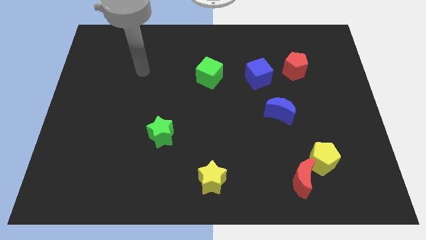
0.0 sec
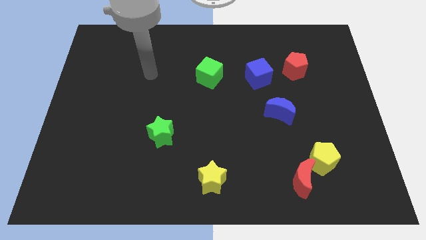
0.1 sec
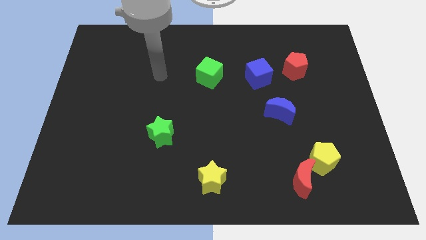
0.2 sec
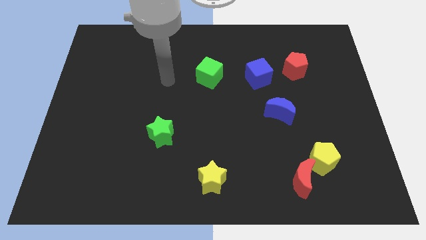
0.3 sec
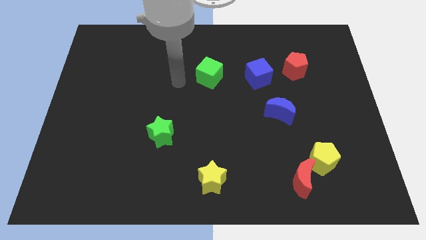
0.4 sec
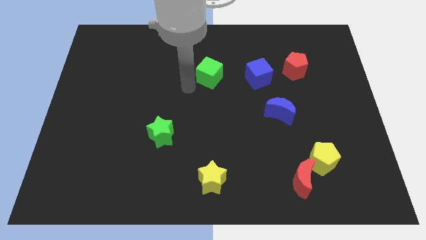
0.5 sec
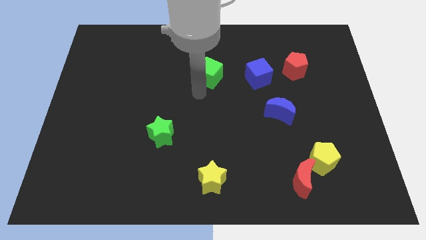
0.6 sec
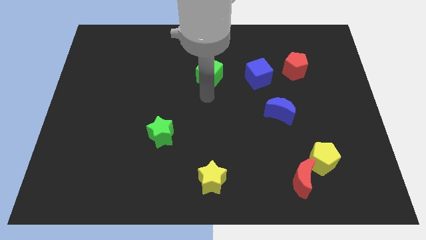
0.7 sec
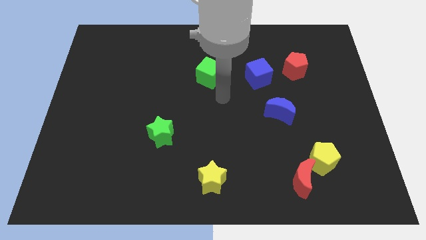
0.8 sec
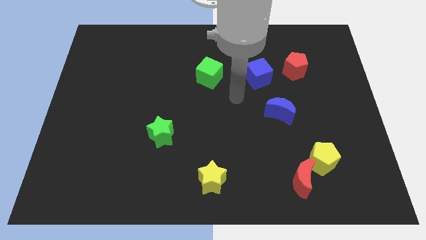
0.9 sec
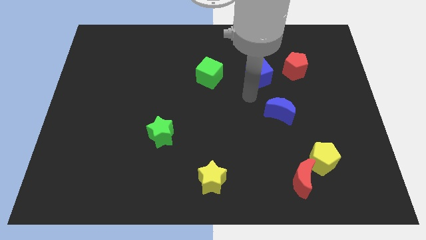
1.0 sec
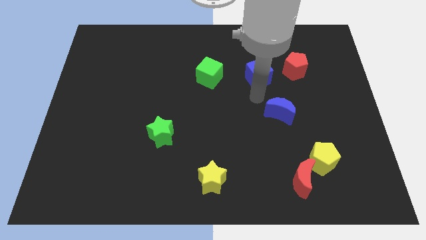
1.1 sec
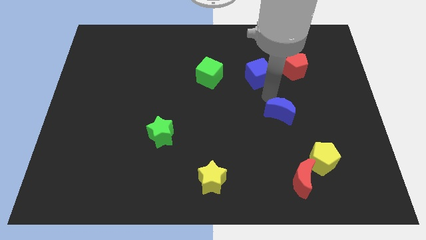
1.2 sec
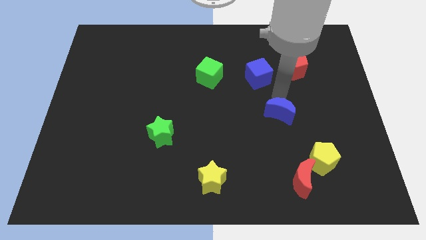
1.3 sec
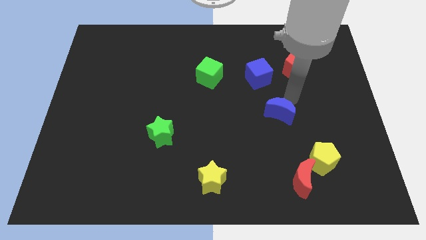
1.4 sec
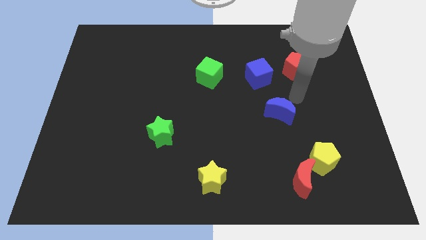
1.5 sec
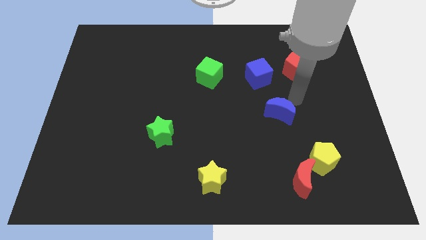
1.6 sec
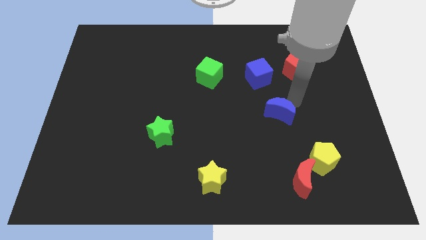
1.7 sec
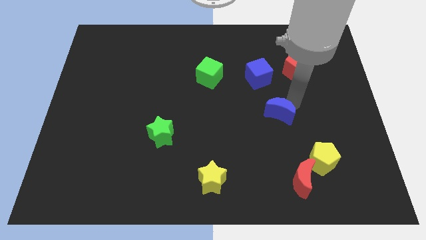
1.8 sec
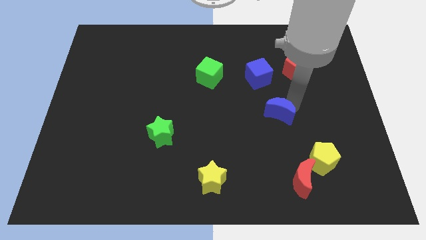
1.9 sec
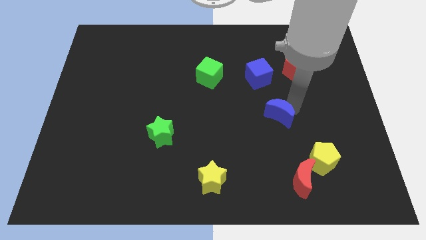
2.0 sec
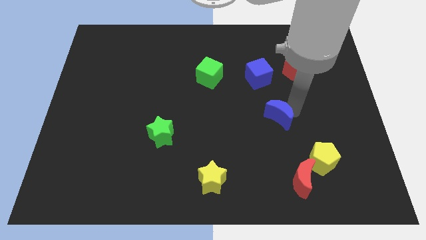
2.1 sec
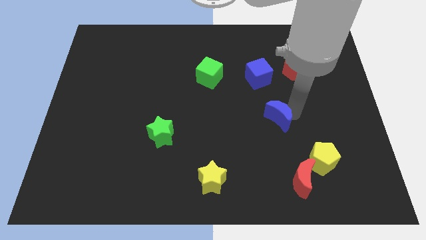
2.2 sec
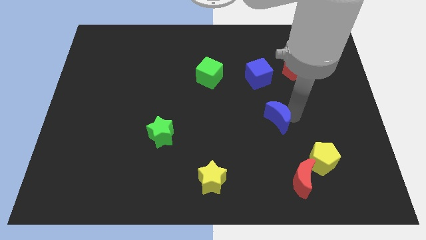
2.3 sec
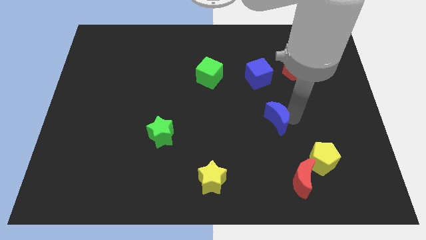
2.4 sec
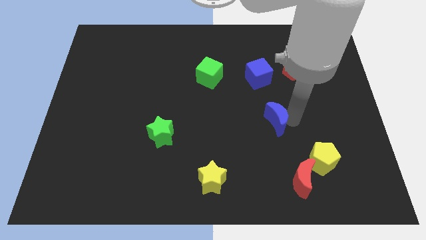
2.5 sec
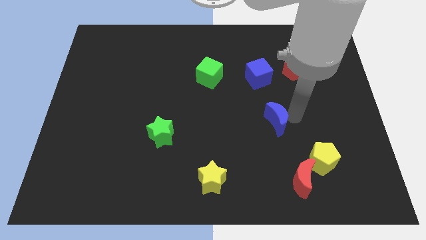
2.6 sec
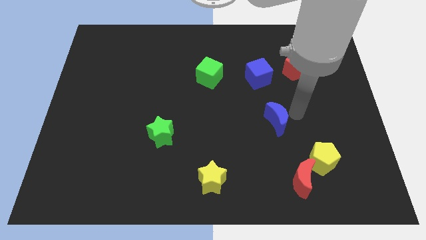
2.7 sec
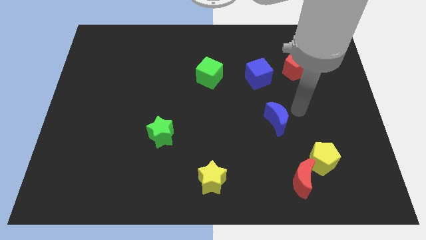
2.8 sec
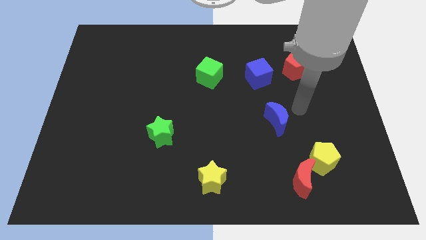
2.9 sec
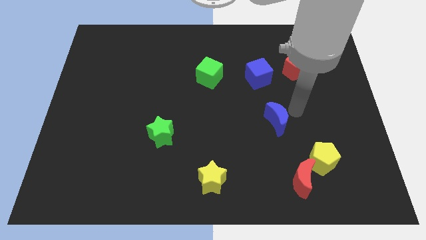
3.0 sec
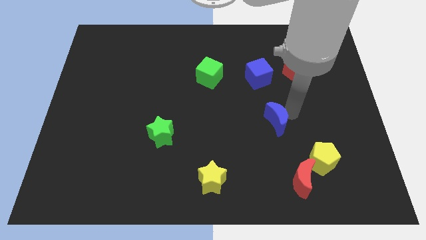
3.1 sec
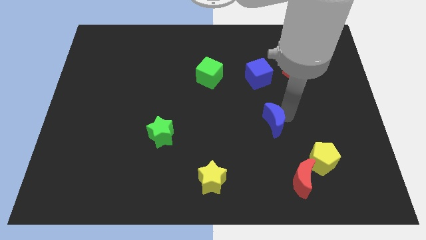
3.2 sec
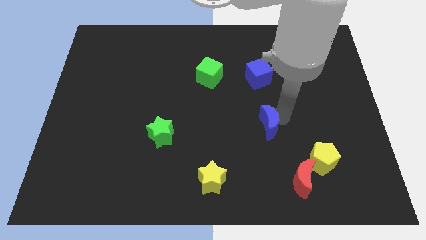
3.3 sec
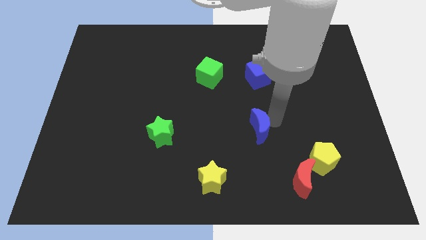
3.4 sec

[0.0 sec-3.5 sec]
push the blue moon somewhat diagonally down and left

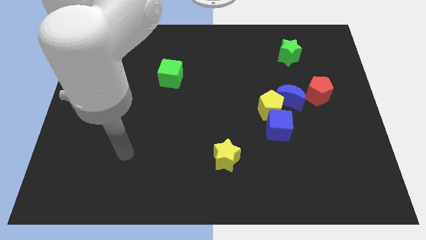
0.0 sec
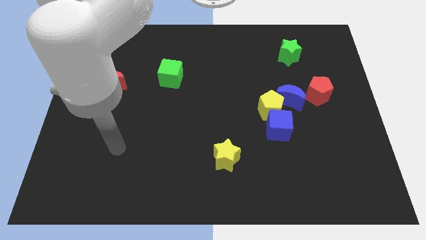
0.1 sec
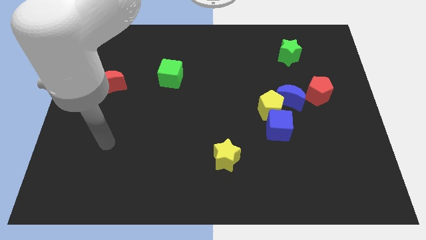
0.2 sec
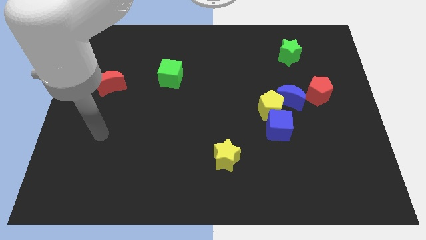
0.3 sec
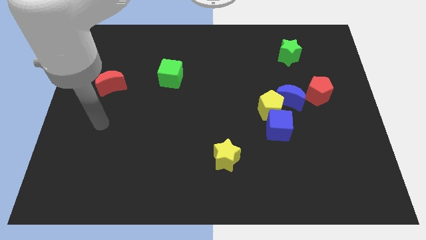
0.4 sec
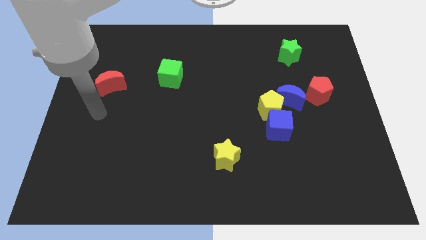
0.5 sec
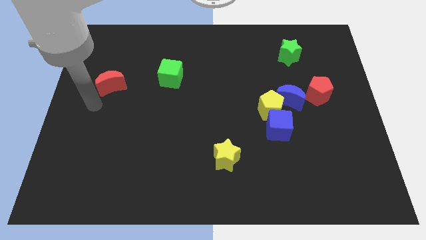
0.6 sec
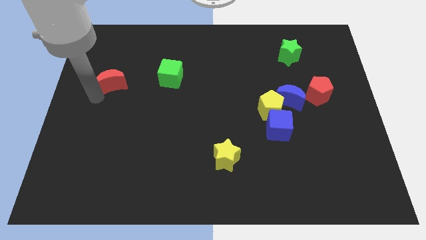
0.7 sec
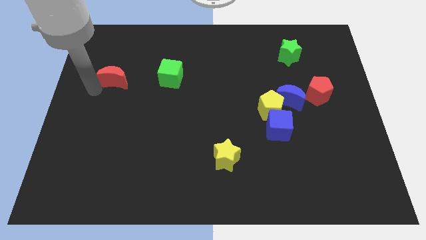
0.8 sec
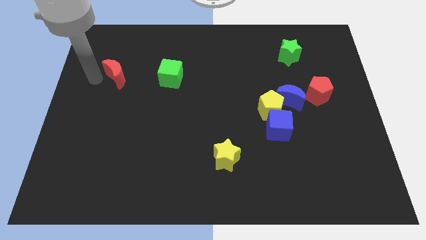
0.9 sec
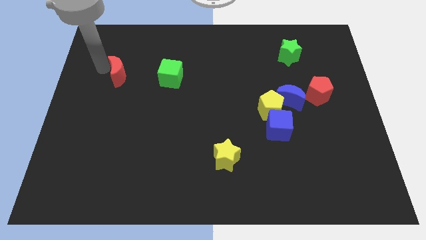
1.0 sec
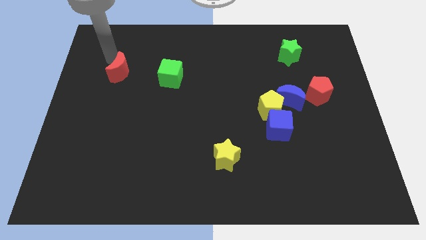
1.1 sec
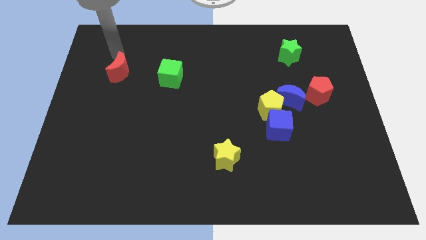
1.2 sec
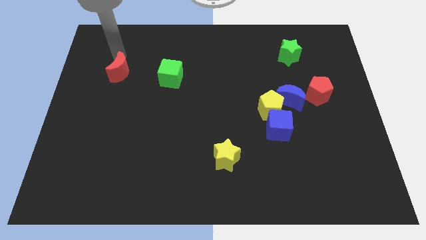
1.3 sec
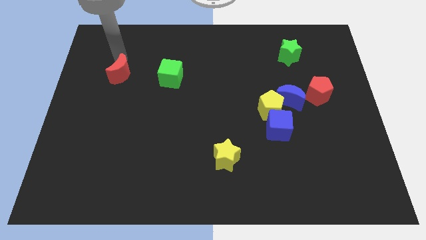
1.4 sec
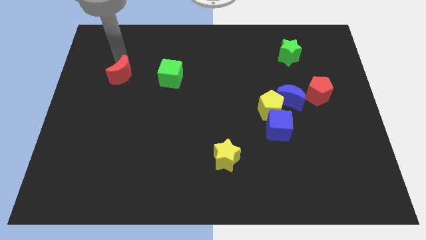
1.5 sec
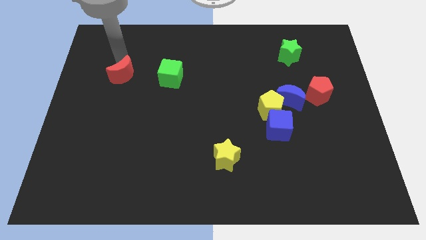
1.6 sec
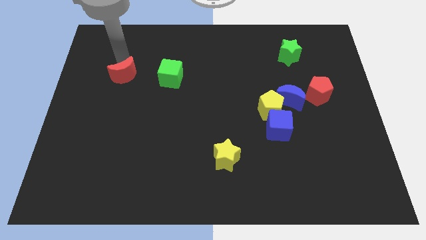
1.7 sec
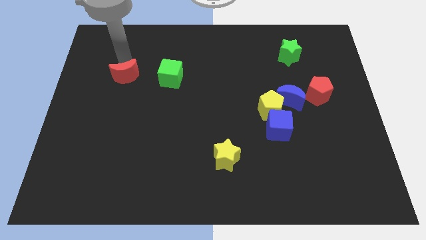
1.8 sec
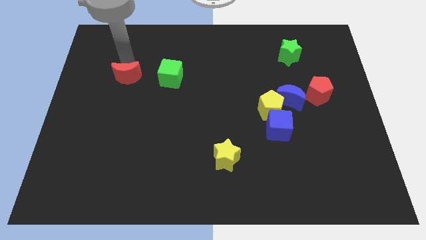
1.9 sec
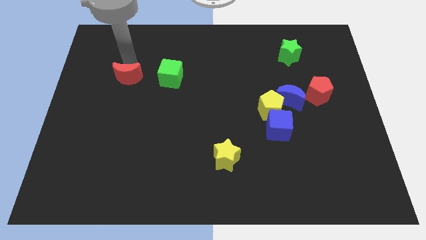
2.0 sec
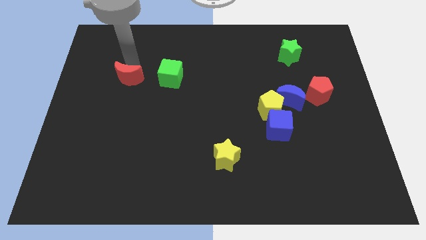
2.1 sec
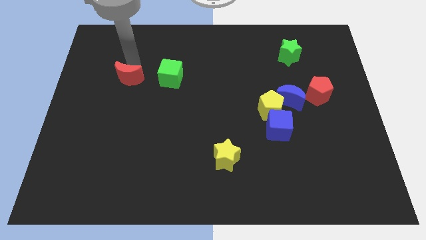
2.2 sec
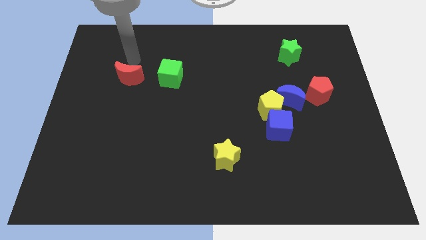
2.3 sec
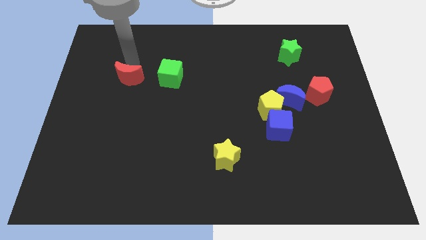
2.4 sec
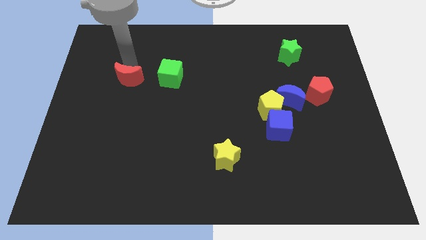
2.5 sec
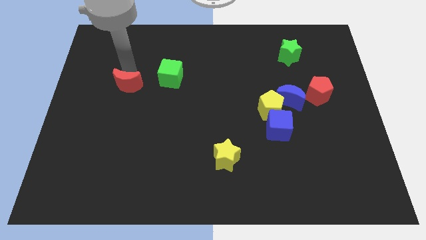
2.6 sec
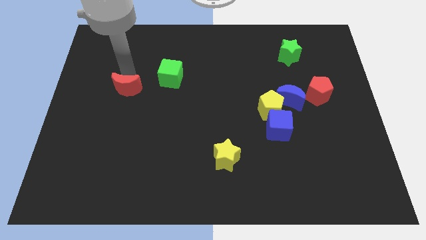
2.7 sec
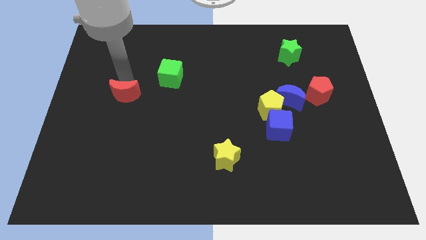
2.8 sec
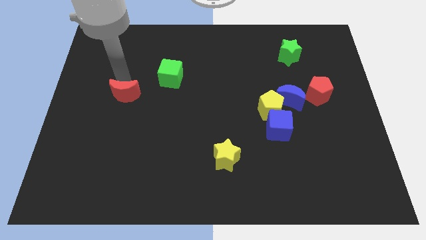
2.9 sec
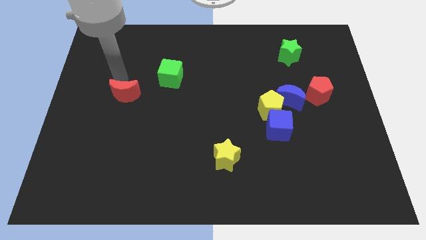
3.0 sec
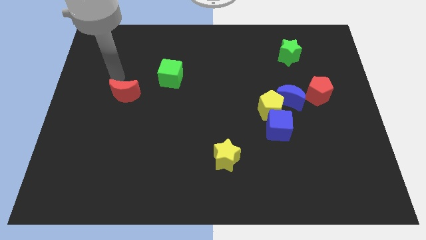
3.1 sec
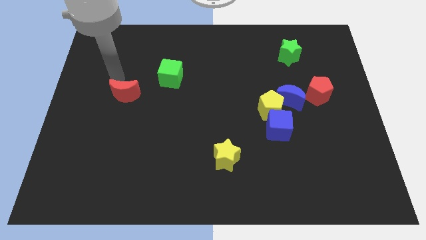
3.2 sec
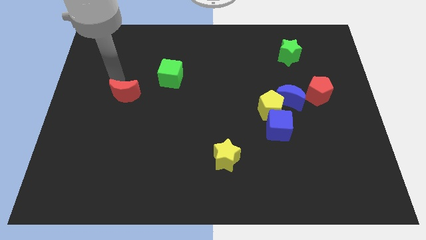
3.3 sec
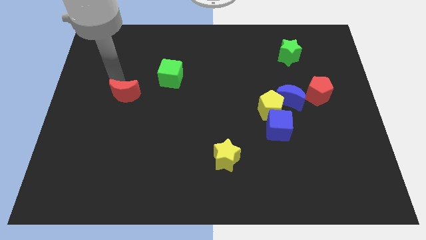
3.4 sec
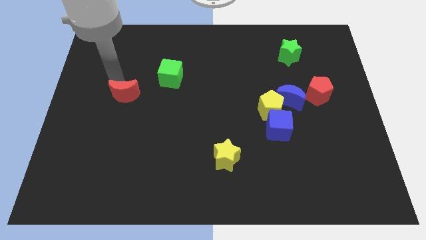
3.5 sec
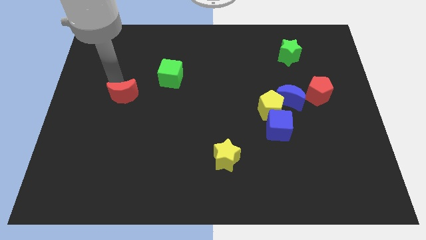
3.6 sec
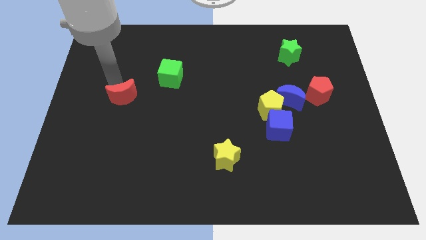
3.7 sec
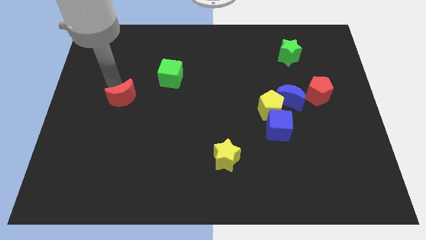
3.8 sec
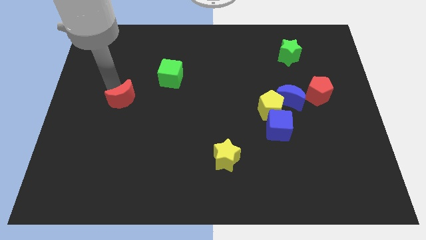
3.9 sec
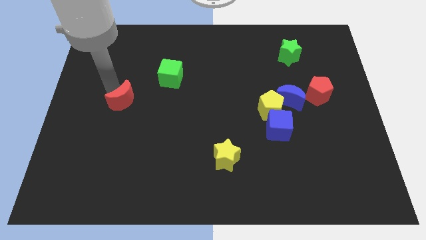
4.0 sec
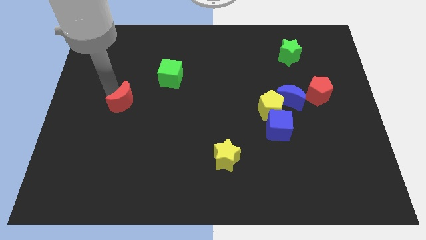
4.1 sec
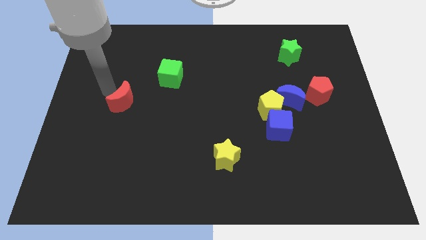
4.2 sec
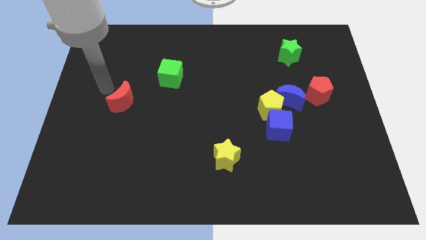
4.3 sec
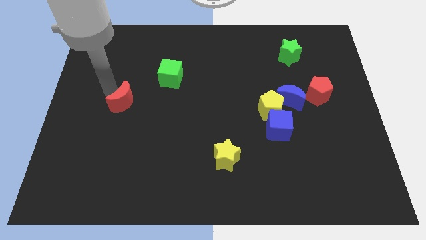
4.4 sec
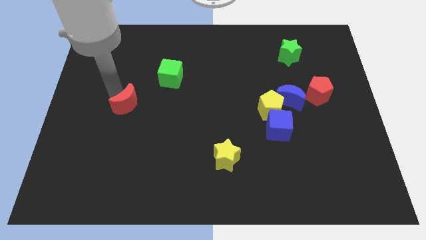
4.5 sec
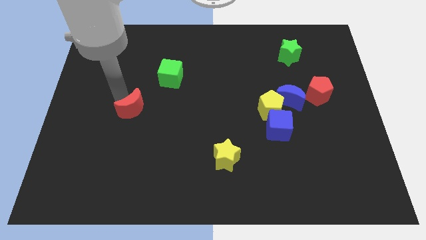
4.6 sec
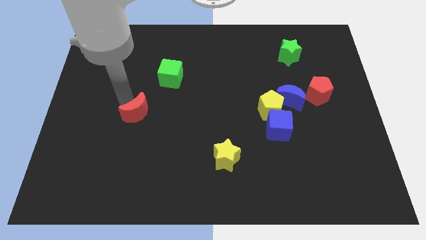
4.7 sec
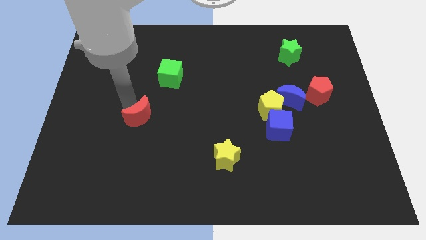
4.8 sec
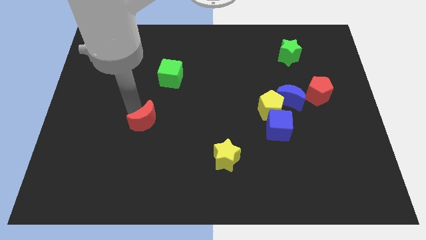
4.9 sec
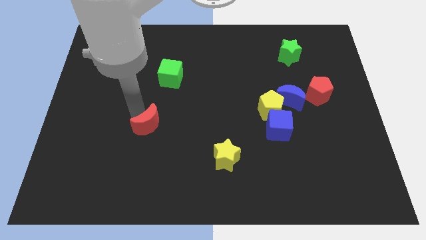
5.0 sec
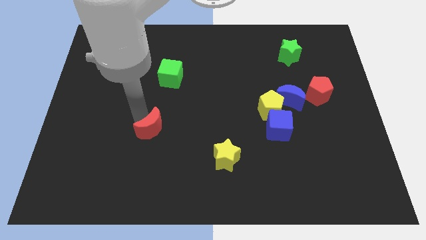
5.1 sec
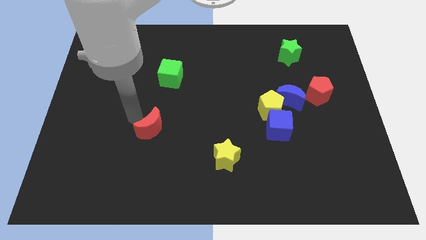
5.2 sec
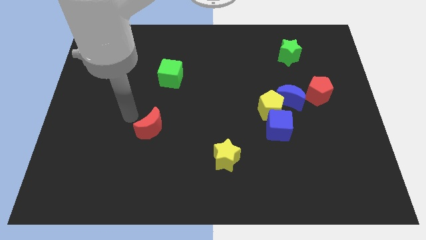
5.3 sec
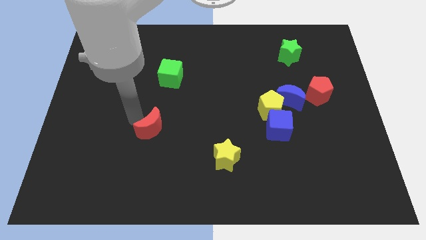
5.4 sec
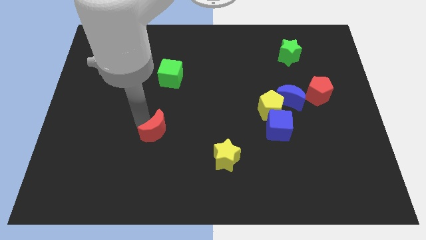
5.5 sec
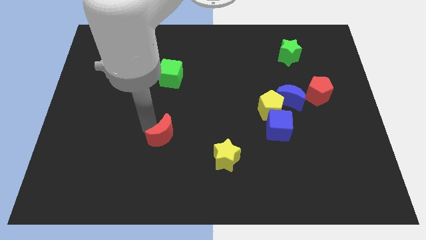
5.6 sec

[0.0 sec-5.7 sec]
move the red moon down and then to the right
